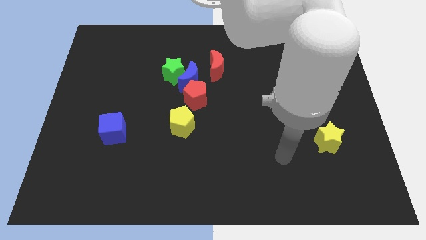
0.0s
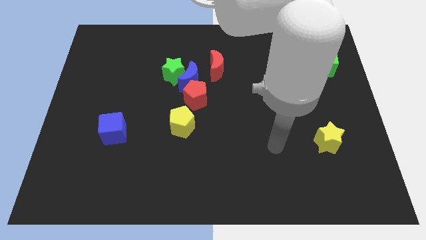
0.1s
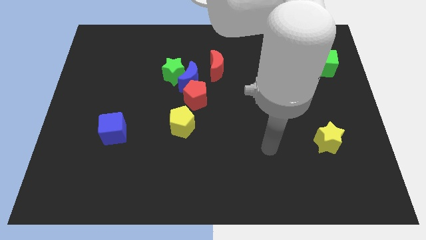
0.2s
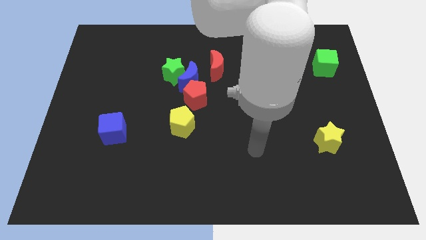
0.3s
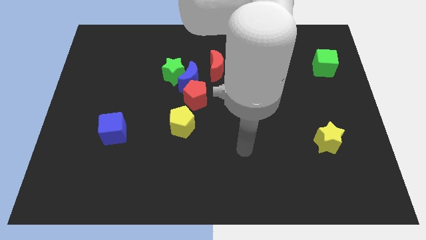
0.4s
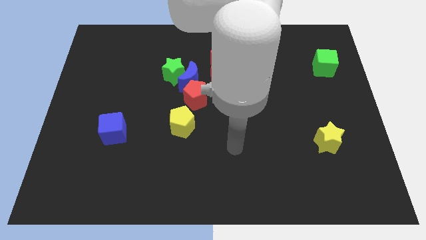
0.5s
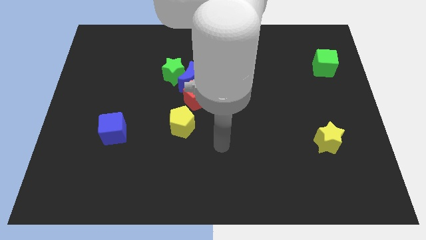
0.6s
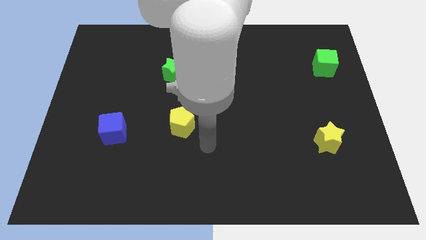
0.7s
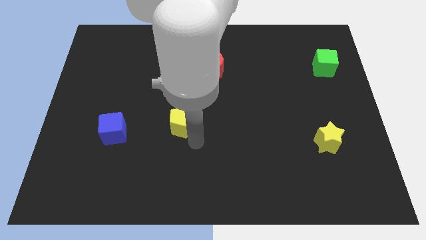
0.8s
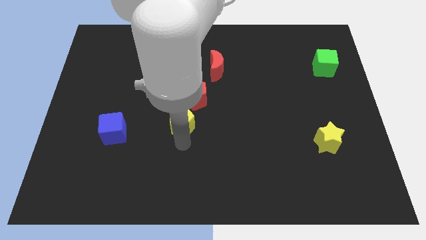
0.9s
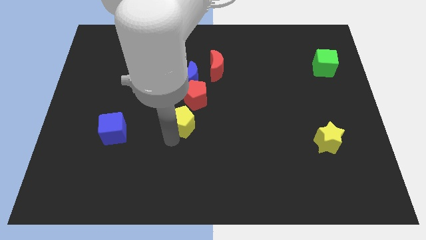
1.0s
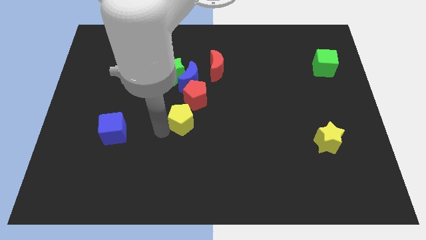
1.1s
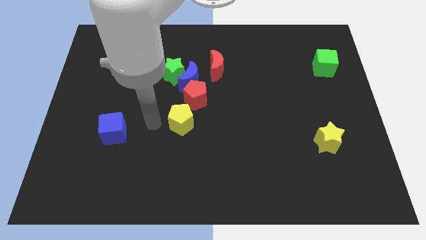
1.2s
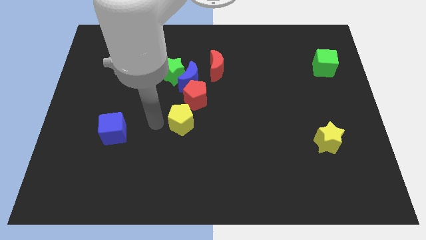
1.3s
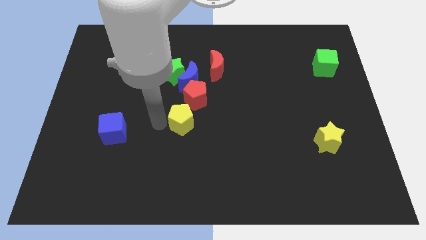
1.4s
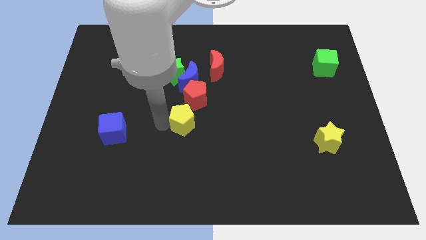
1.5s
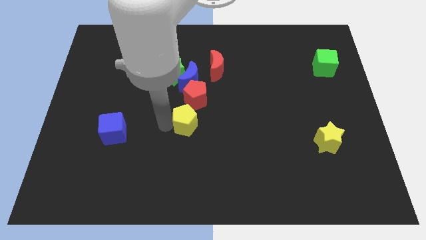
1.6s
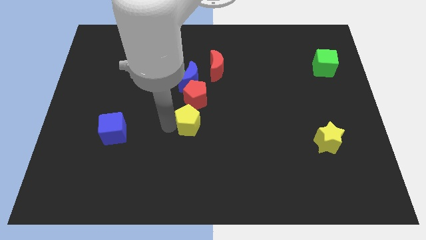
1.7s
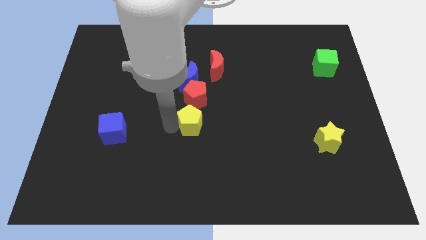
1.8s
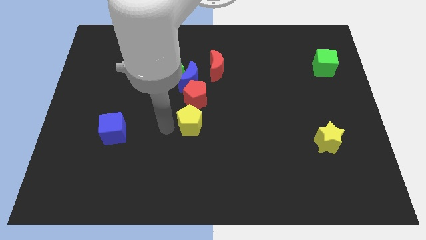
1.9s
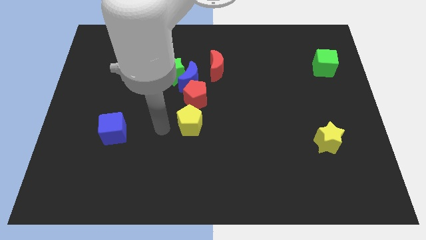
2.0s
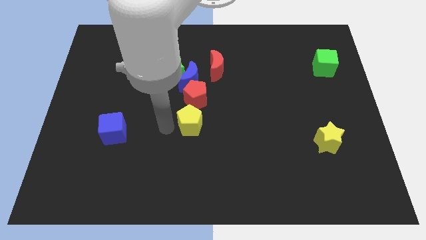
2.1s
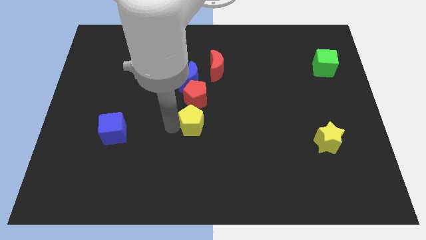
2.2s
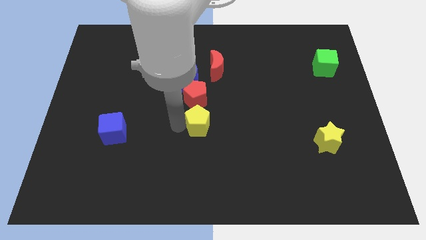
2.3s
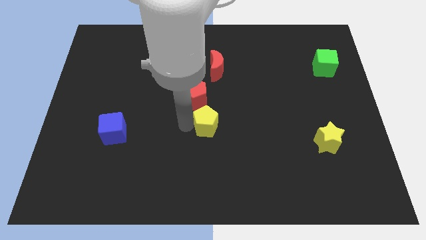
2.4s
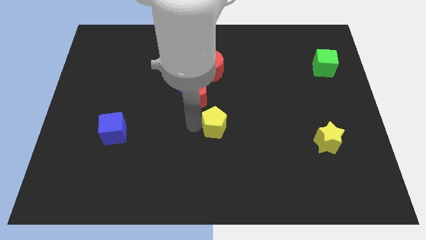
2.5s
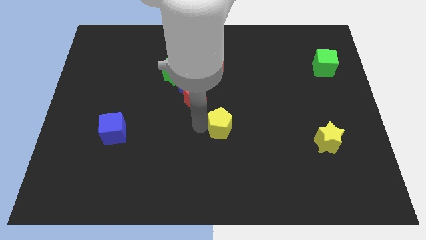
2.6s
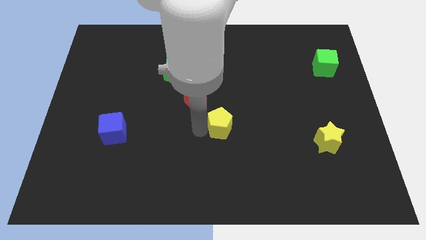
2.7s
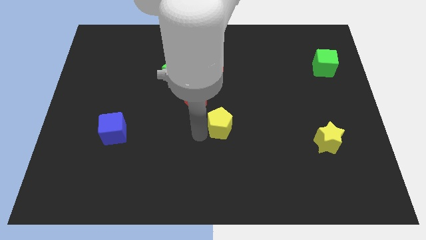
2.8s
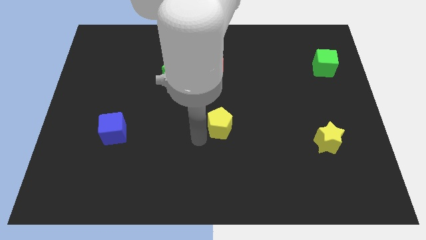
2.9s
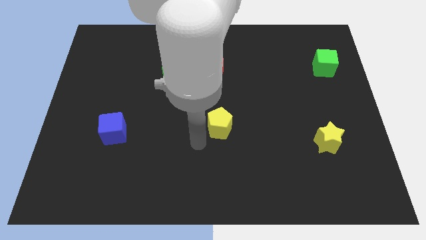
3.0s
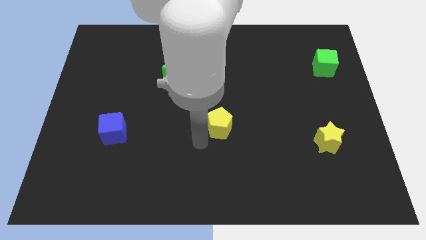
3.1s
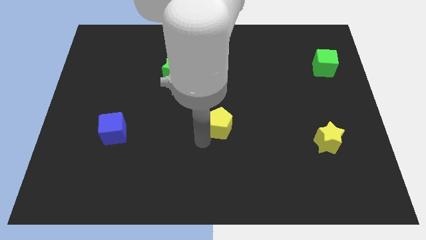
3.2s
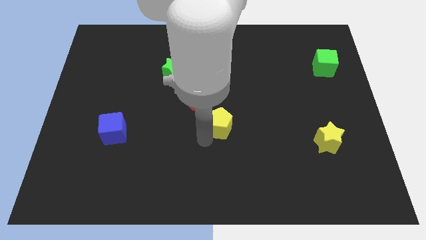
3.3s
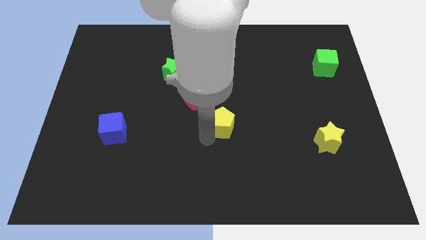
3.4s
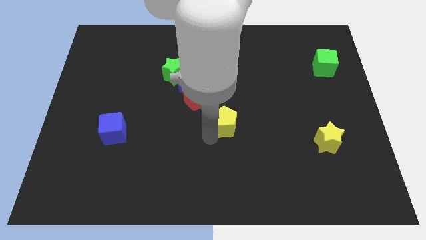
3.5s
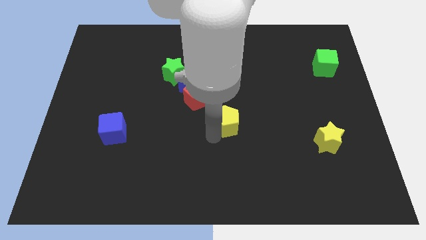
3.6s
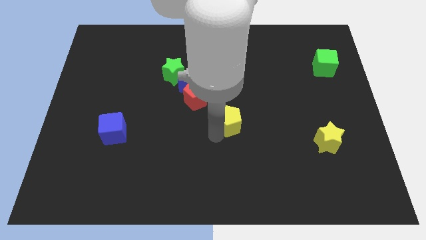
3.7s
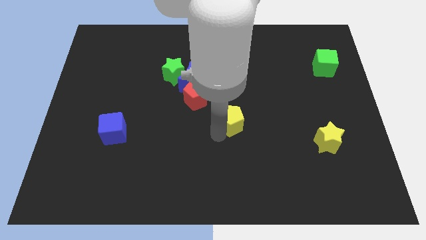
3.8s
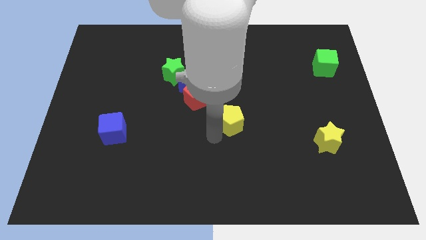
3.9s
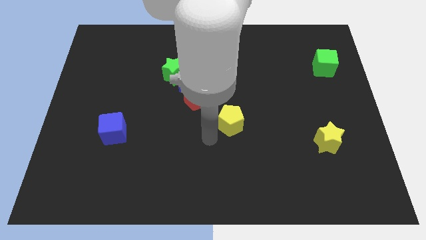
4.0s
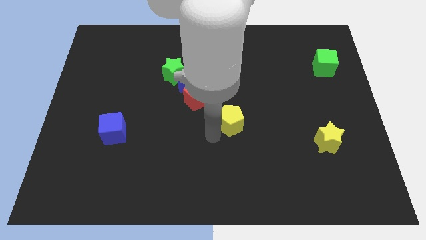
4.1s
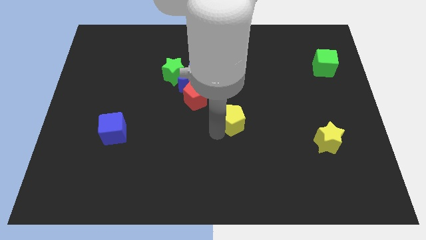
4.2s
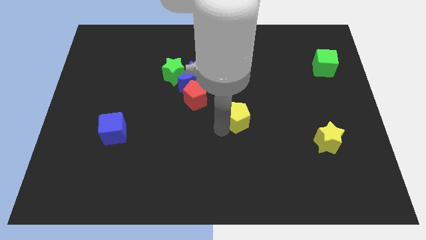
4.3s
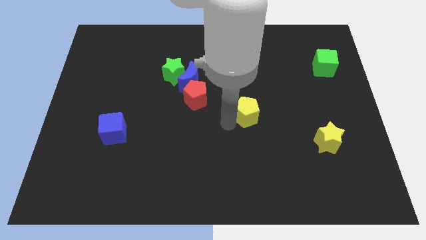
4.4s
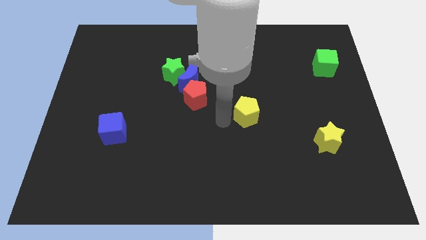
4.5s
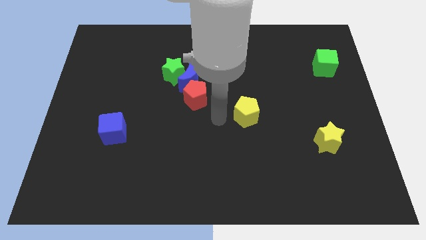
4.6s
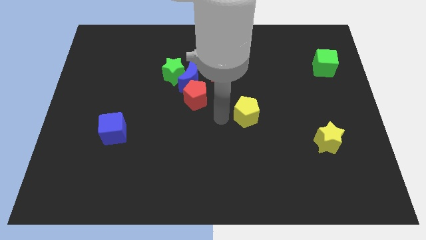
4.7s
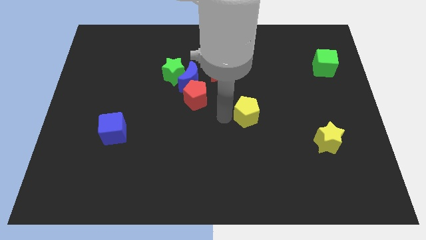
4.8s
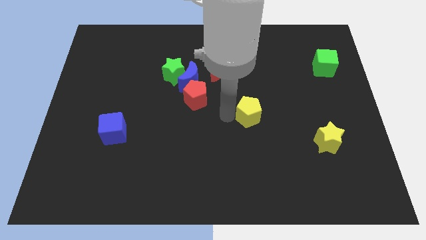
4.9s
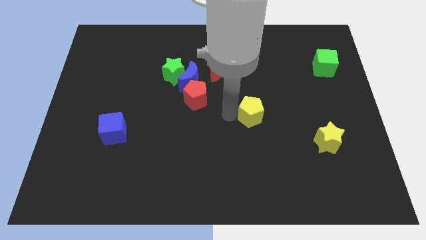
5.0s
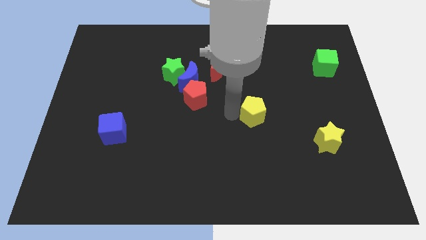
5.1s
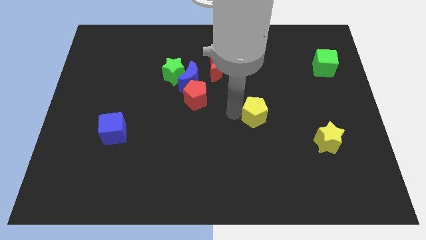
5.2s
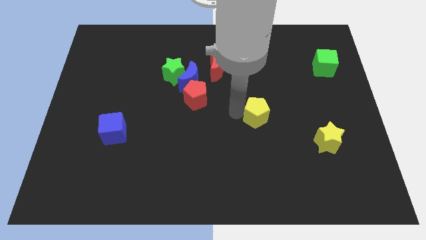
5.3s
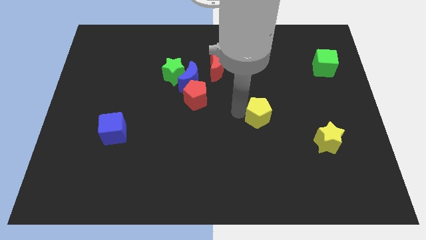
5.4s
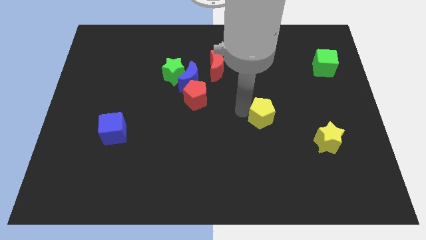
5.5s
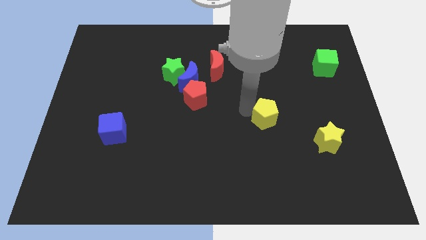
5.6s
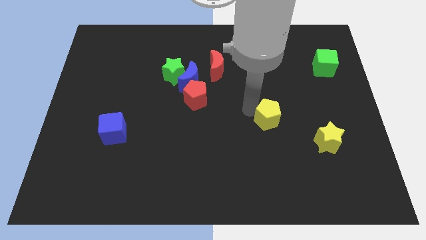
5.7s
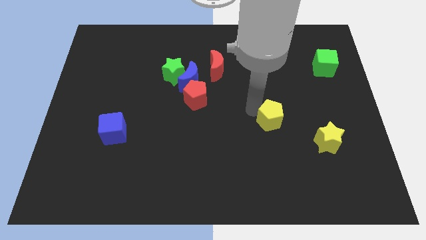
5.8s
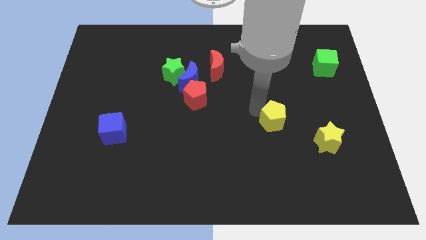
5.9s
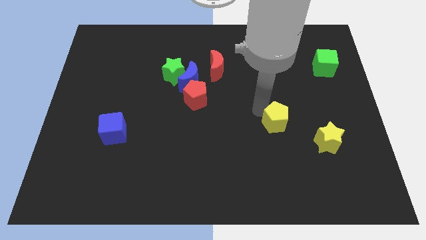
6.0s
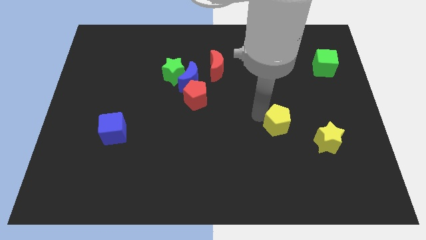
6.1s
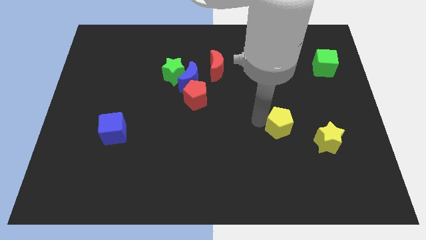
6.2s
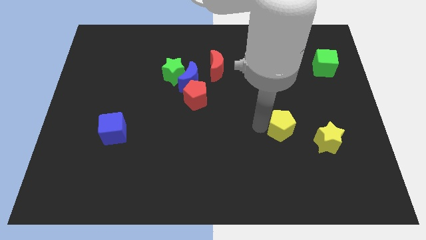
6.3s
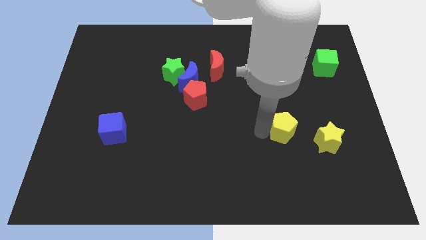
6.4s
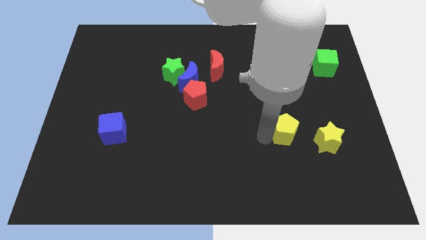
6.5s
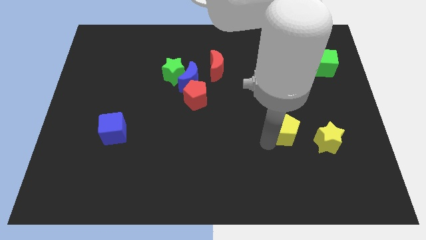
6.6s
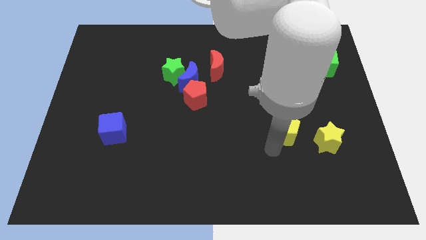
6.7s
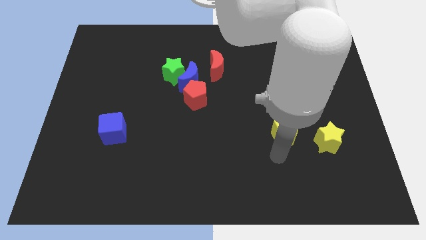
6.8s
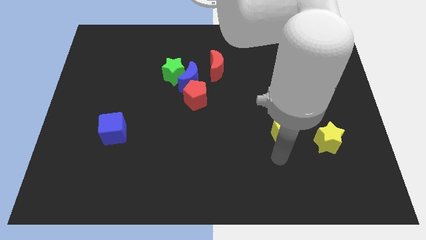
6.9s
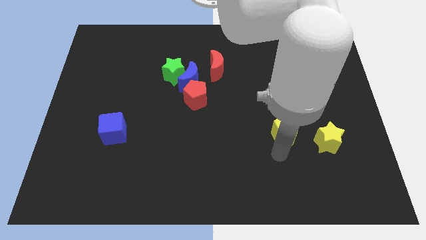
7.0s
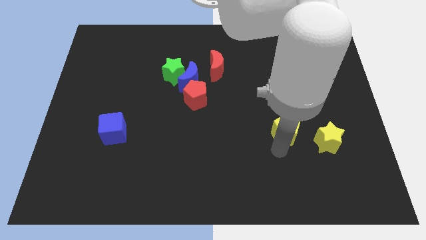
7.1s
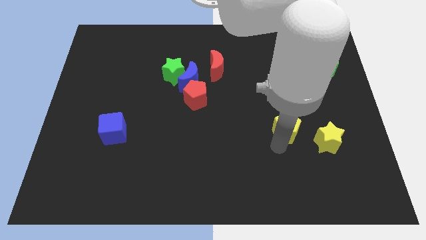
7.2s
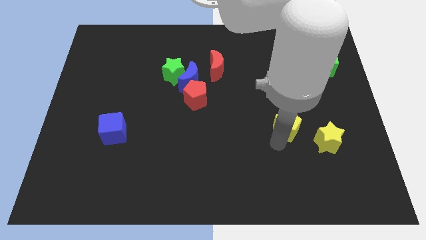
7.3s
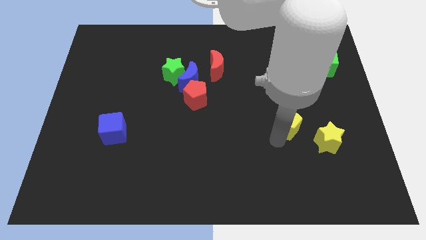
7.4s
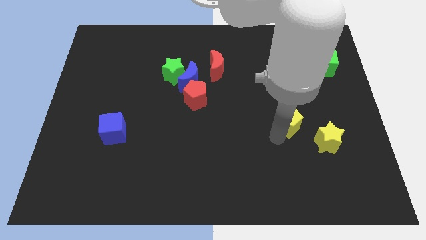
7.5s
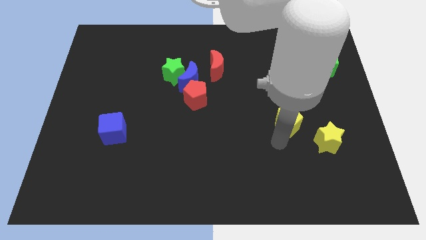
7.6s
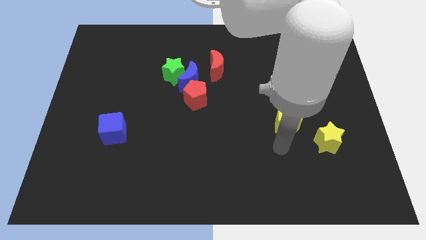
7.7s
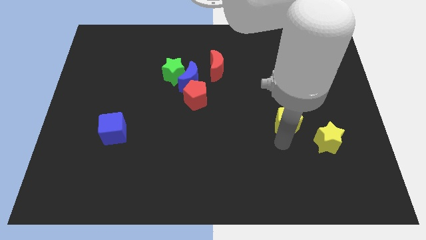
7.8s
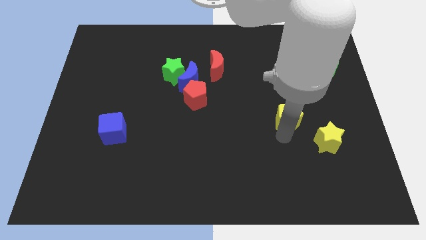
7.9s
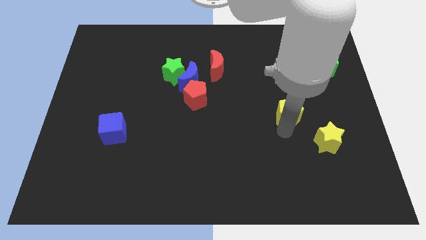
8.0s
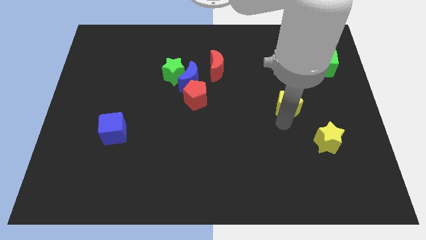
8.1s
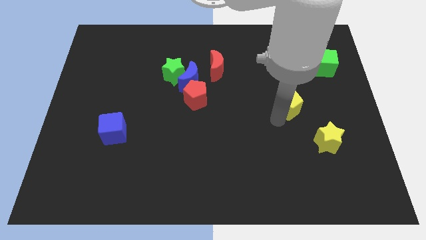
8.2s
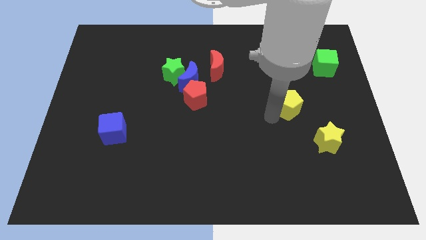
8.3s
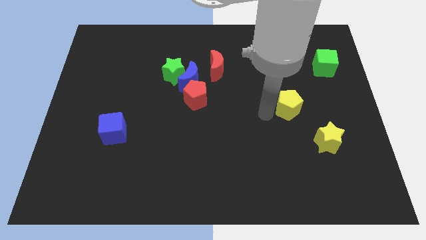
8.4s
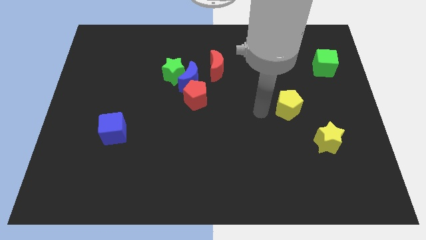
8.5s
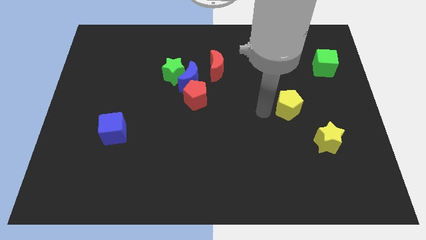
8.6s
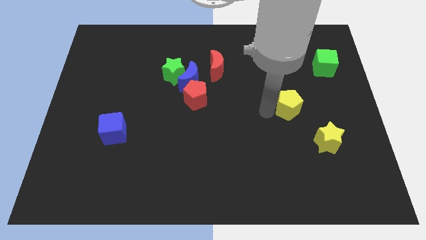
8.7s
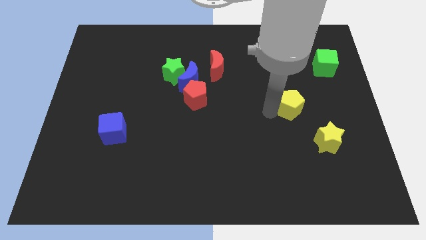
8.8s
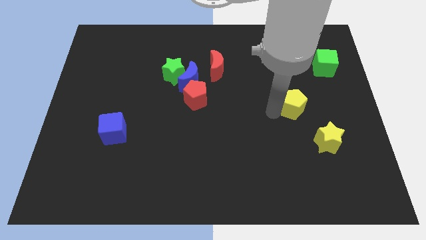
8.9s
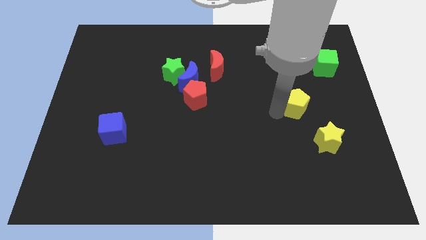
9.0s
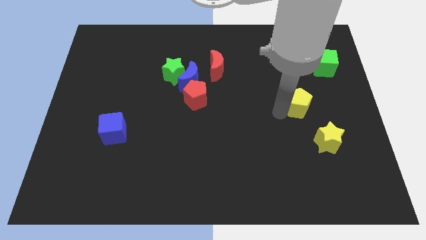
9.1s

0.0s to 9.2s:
push the yellow pentagon to the top side of the yellow star
